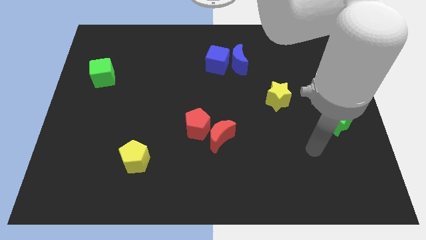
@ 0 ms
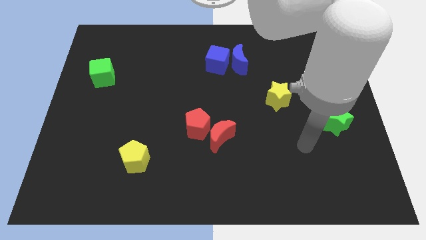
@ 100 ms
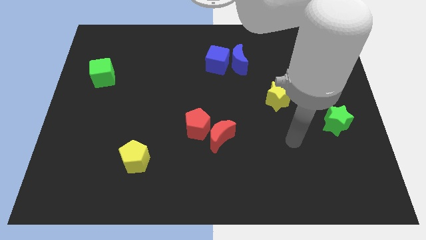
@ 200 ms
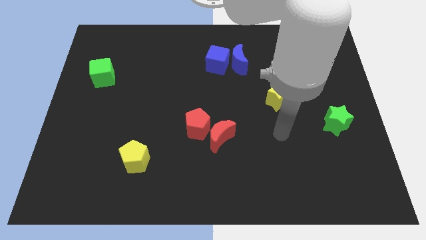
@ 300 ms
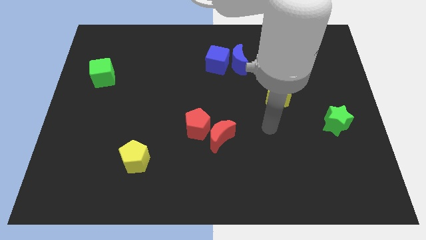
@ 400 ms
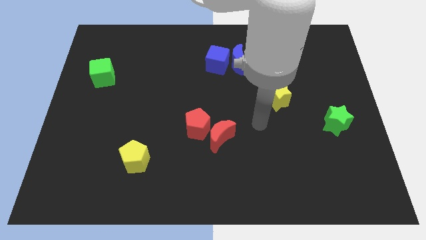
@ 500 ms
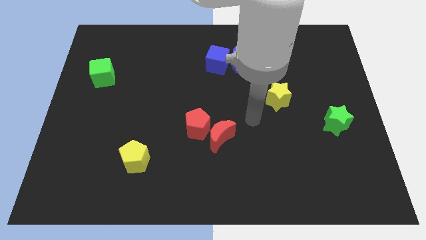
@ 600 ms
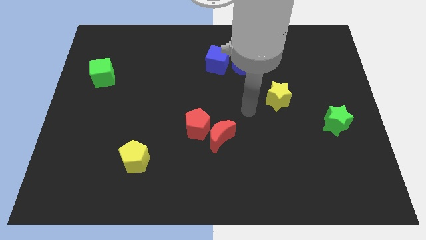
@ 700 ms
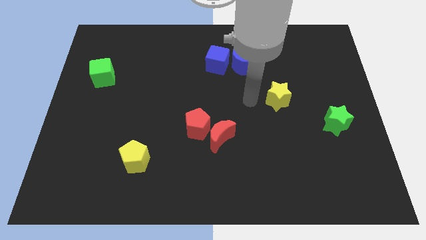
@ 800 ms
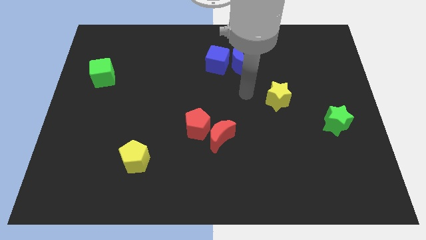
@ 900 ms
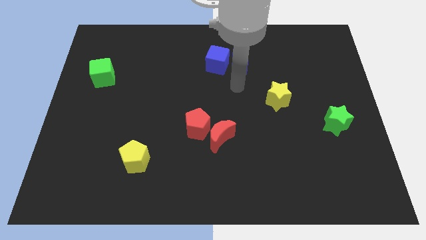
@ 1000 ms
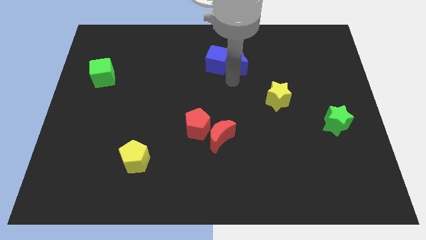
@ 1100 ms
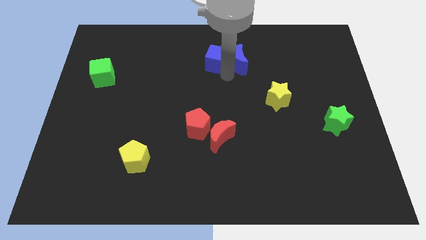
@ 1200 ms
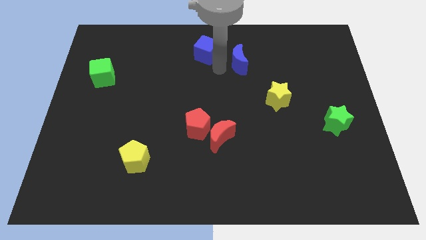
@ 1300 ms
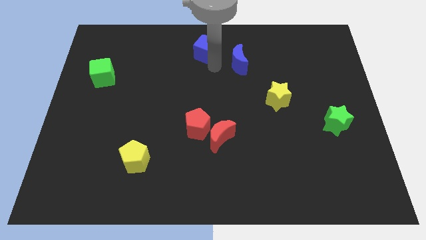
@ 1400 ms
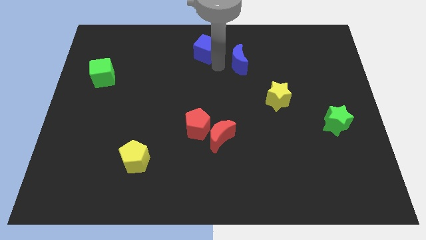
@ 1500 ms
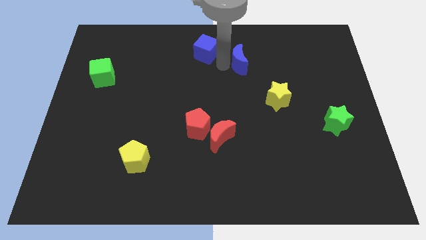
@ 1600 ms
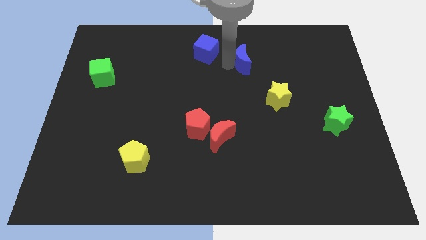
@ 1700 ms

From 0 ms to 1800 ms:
pull the blue moon apart from the blue cube

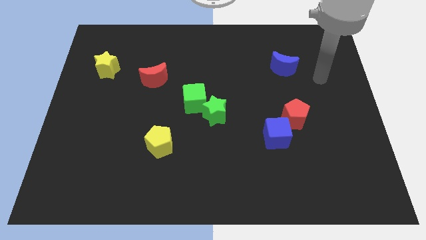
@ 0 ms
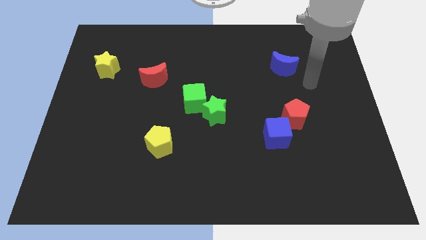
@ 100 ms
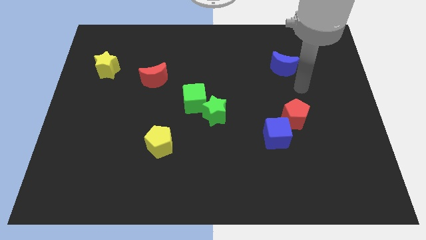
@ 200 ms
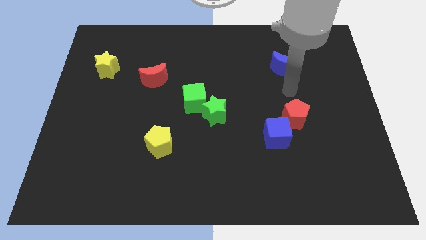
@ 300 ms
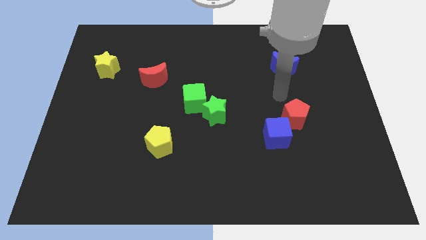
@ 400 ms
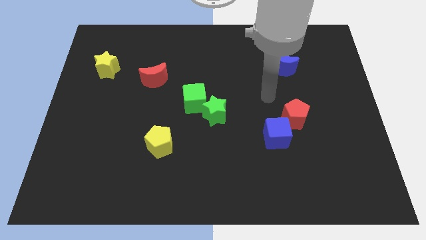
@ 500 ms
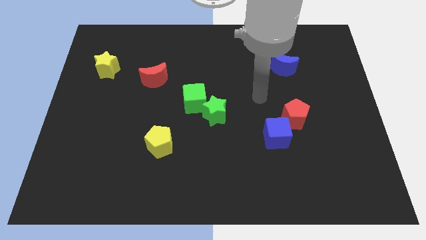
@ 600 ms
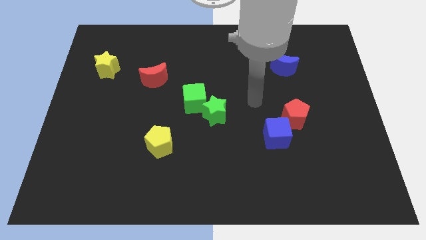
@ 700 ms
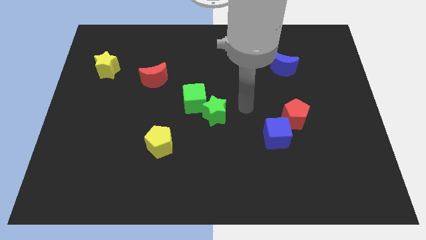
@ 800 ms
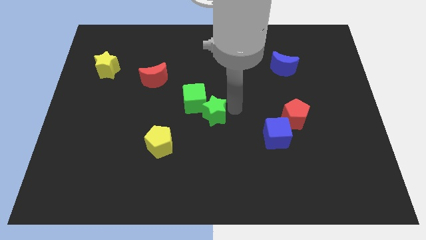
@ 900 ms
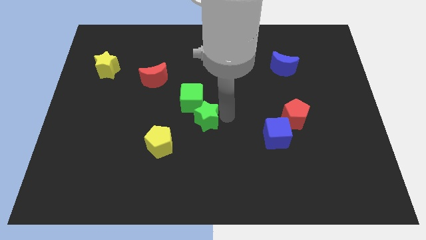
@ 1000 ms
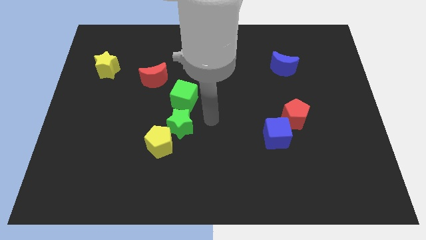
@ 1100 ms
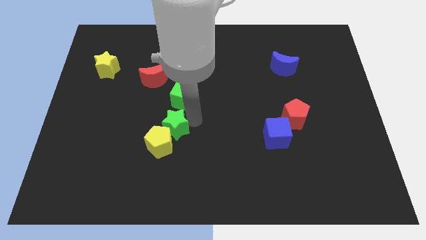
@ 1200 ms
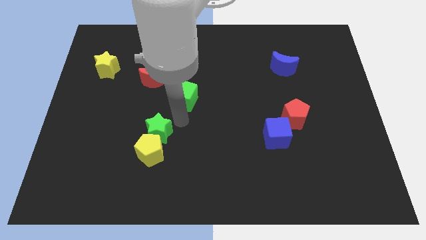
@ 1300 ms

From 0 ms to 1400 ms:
separate the green cube from the green star

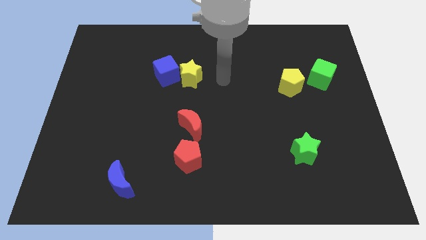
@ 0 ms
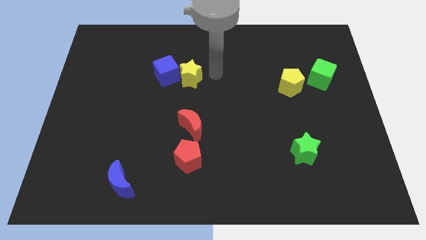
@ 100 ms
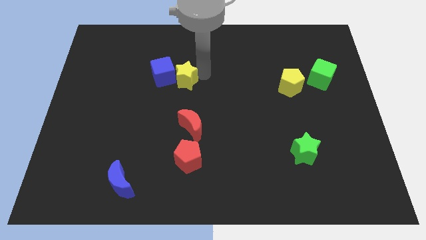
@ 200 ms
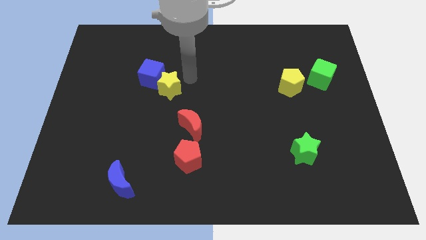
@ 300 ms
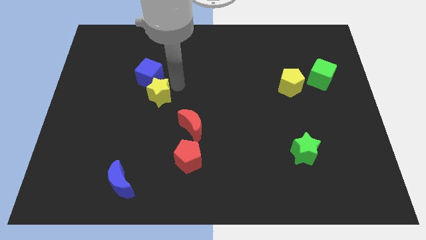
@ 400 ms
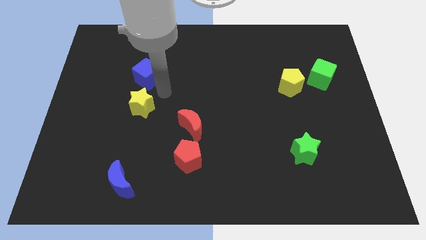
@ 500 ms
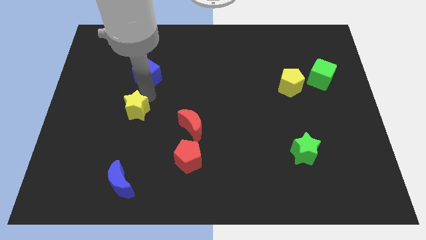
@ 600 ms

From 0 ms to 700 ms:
move the blue cube away from the yellow star

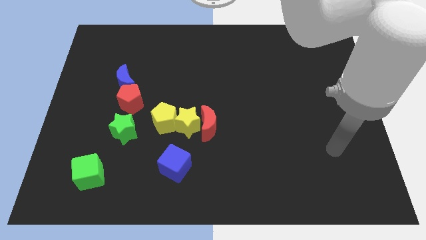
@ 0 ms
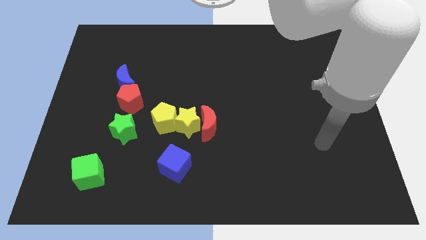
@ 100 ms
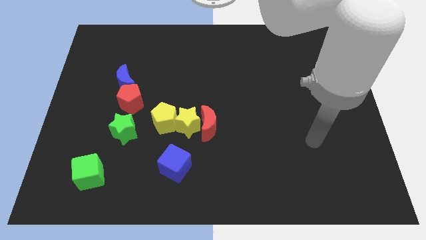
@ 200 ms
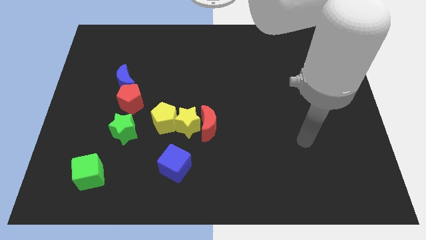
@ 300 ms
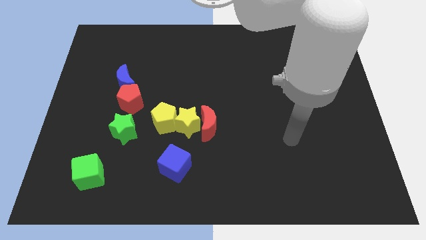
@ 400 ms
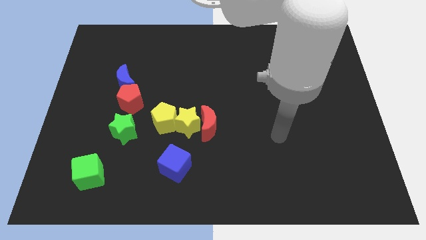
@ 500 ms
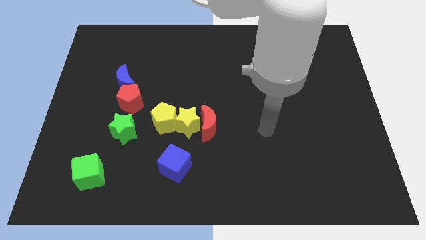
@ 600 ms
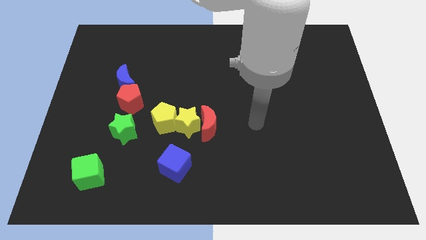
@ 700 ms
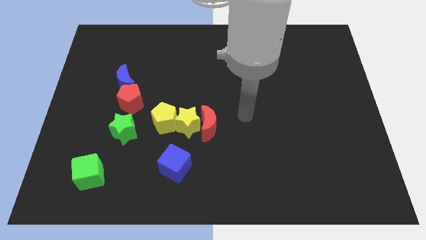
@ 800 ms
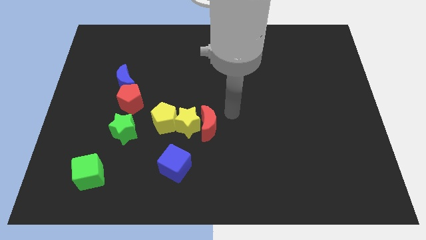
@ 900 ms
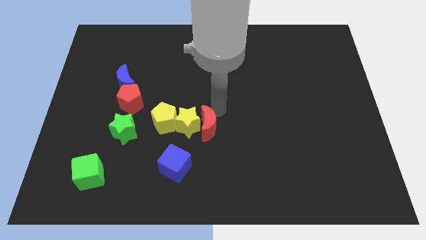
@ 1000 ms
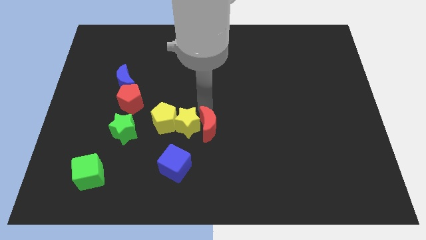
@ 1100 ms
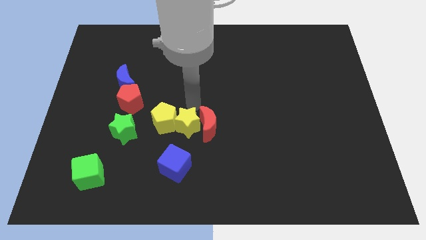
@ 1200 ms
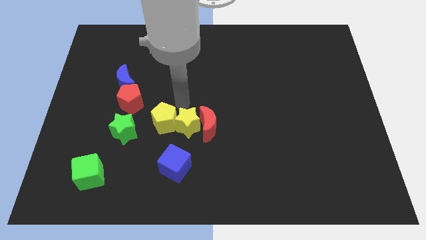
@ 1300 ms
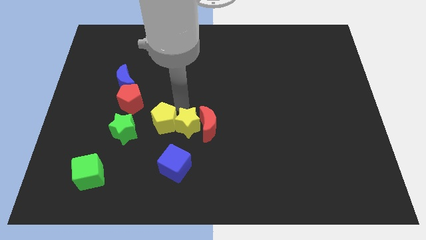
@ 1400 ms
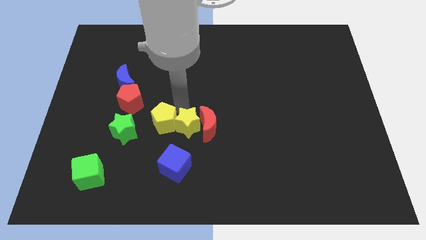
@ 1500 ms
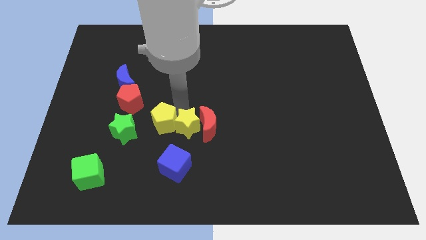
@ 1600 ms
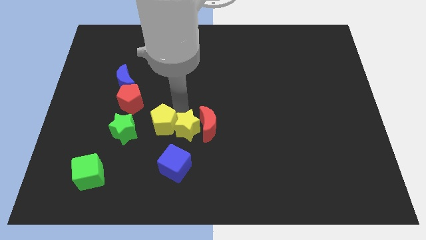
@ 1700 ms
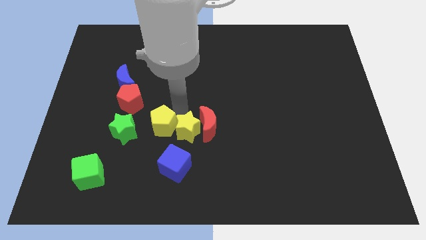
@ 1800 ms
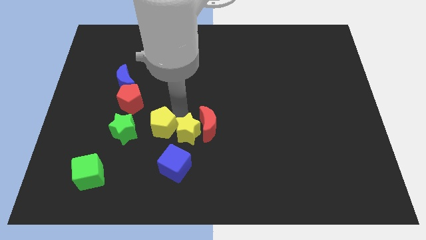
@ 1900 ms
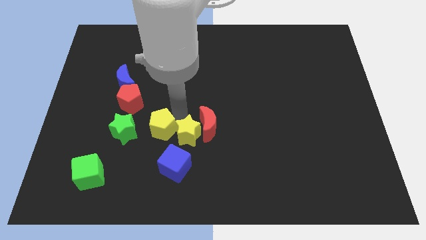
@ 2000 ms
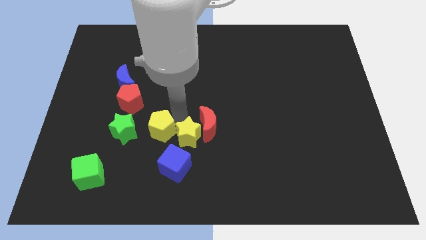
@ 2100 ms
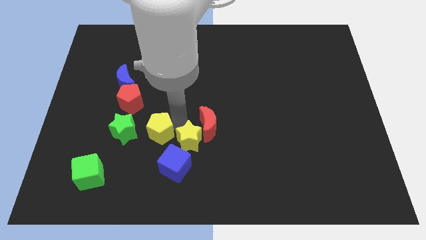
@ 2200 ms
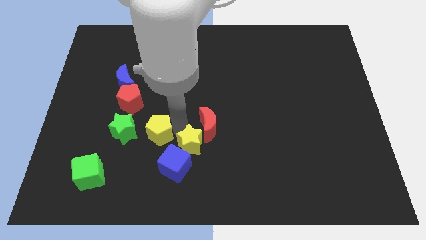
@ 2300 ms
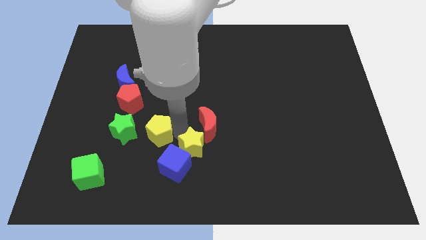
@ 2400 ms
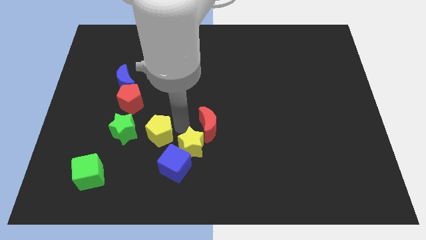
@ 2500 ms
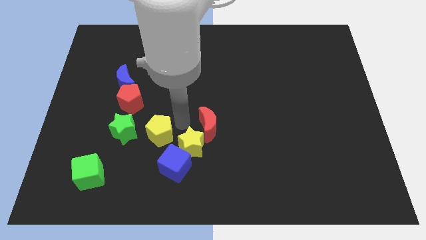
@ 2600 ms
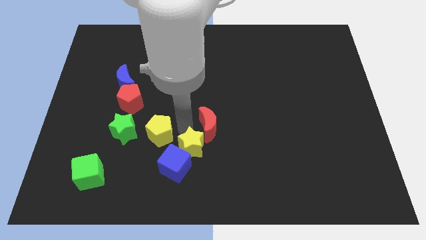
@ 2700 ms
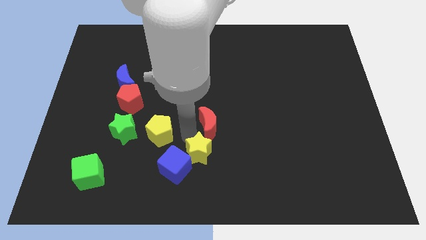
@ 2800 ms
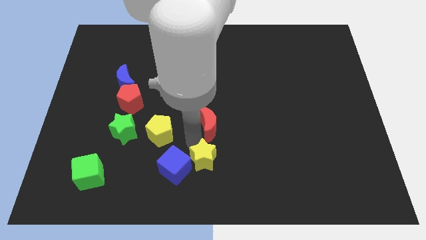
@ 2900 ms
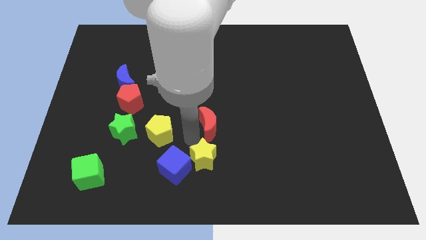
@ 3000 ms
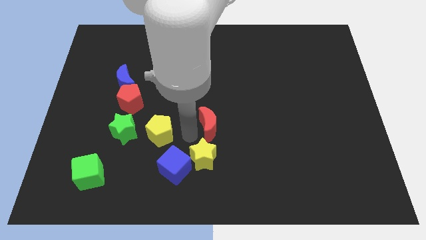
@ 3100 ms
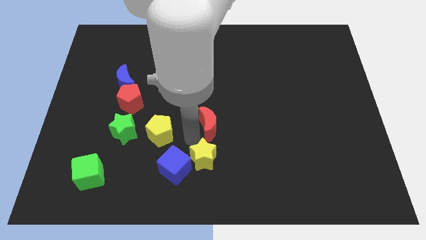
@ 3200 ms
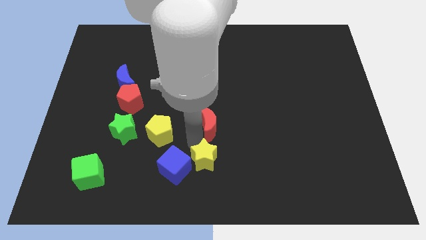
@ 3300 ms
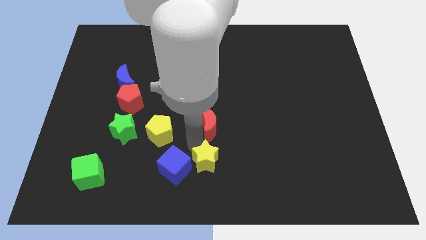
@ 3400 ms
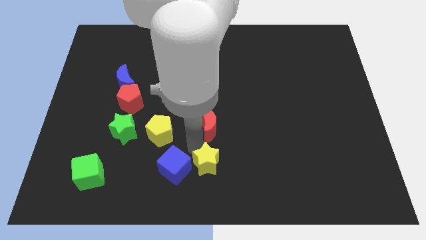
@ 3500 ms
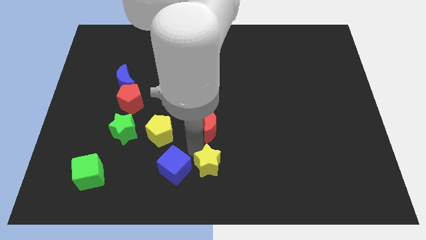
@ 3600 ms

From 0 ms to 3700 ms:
separate the yellow star from the red moon and yellow pentagon

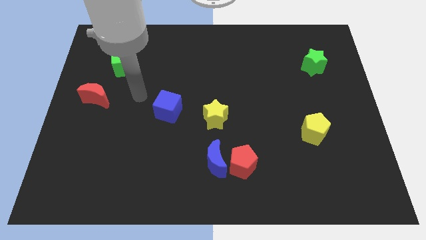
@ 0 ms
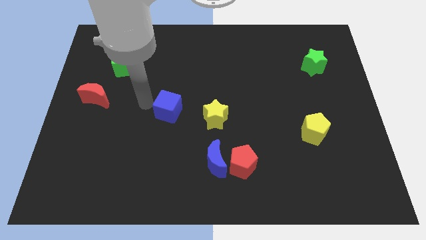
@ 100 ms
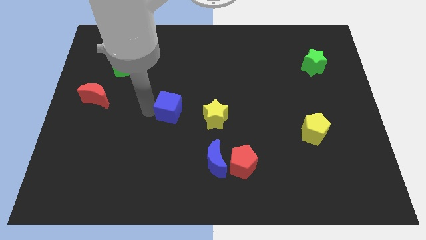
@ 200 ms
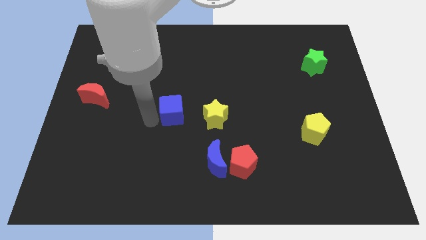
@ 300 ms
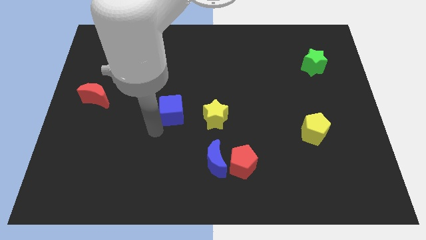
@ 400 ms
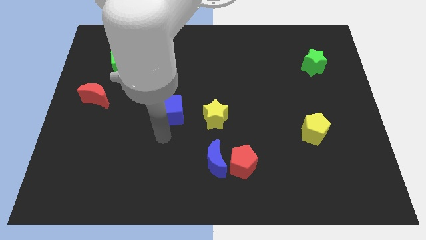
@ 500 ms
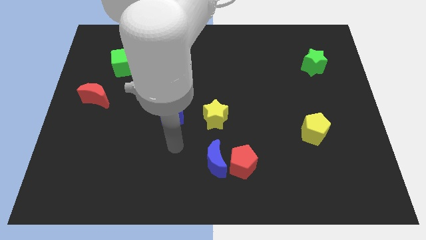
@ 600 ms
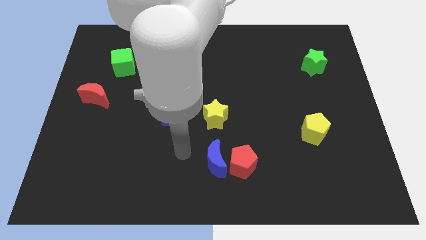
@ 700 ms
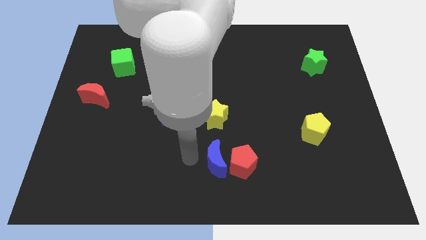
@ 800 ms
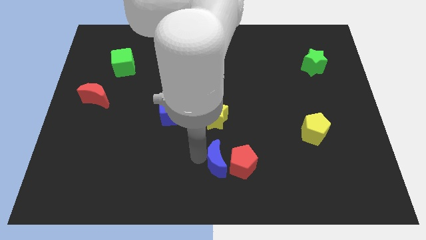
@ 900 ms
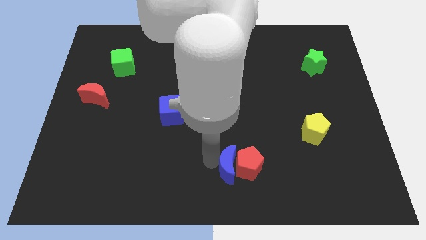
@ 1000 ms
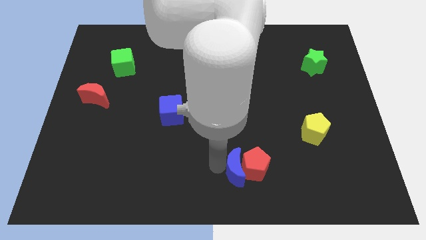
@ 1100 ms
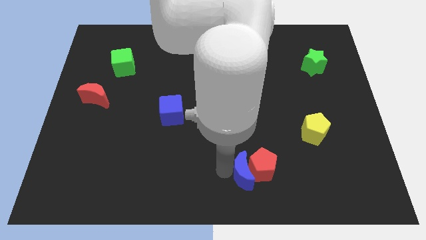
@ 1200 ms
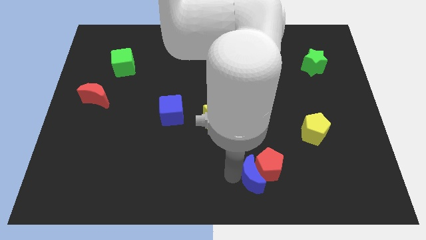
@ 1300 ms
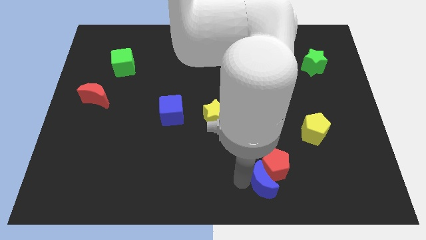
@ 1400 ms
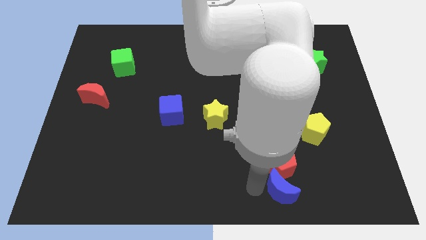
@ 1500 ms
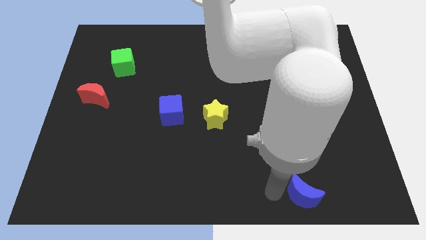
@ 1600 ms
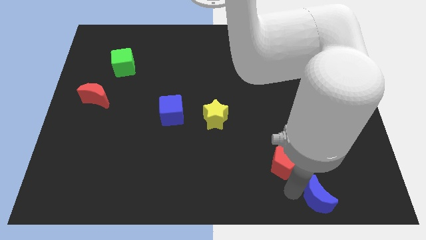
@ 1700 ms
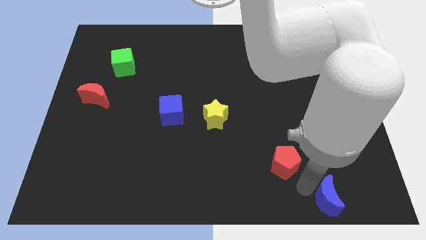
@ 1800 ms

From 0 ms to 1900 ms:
move the red pentagon away from the blue moon
